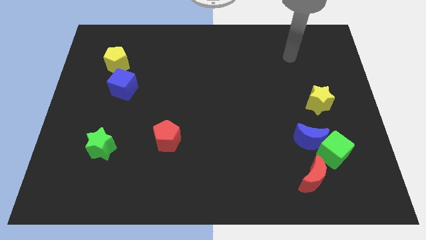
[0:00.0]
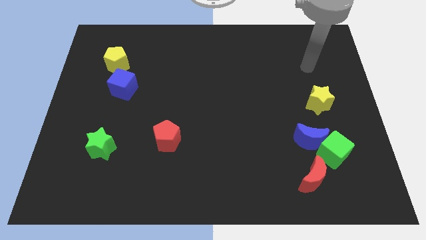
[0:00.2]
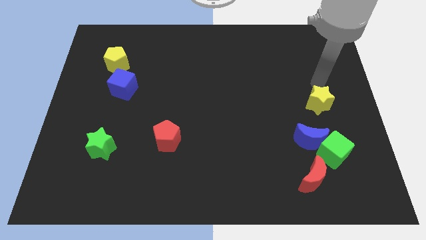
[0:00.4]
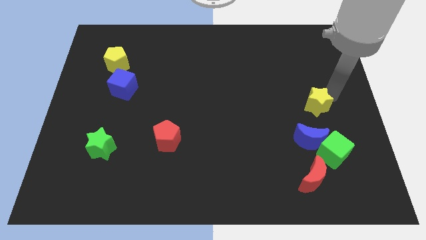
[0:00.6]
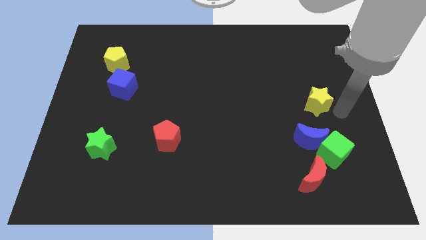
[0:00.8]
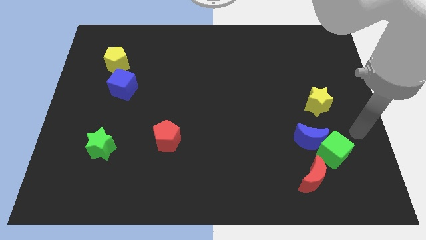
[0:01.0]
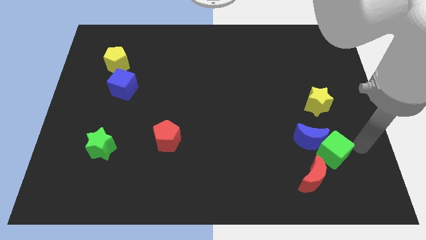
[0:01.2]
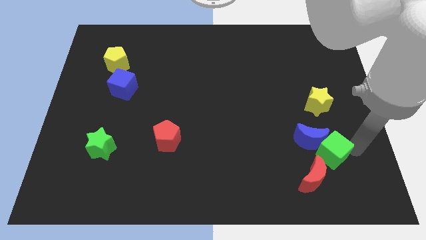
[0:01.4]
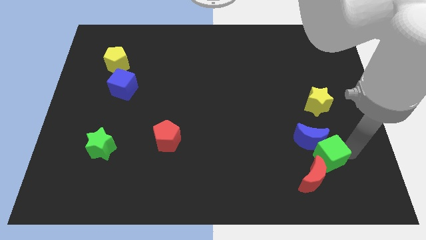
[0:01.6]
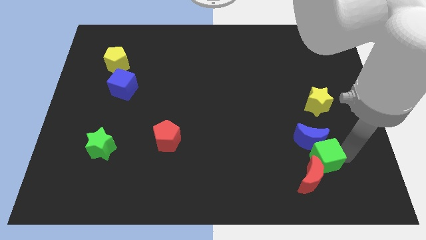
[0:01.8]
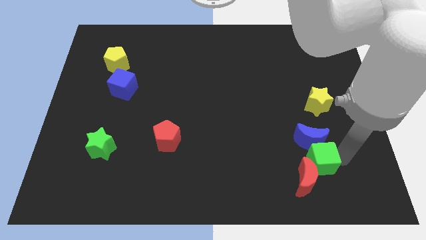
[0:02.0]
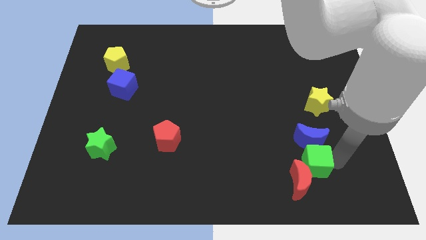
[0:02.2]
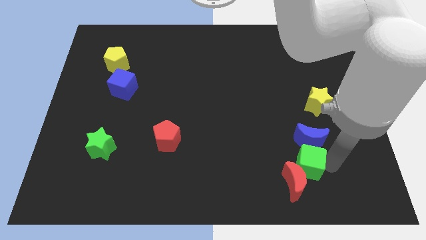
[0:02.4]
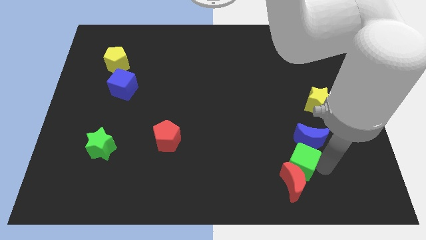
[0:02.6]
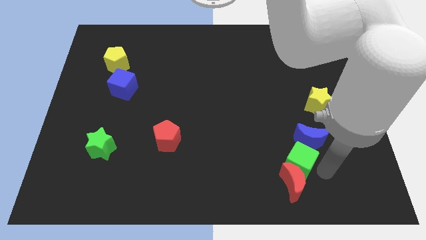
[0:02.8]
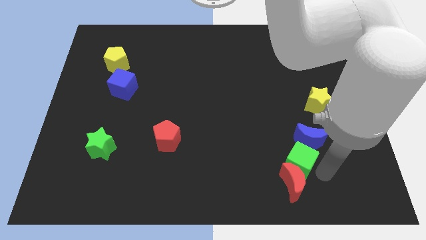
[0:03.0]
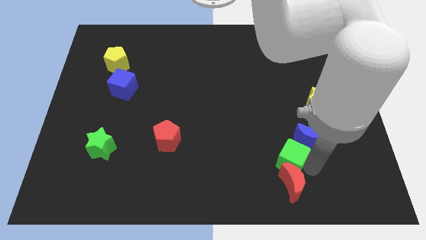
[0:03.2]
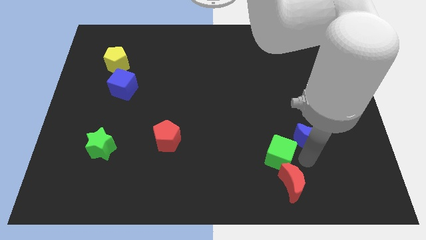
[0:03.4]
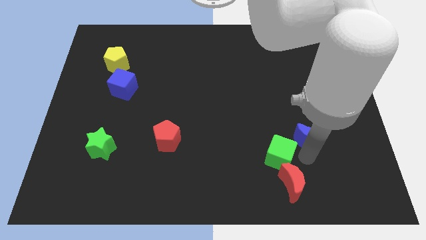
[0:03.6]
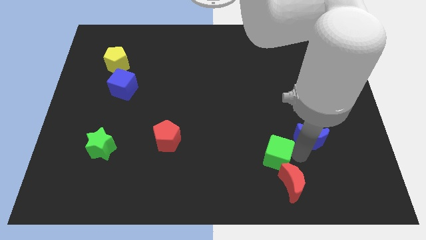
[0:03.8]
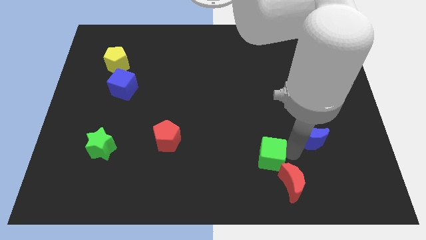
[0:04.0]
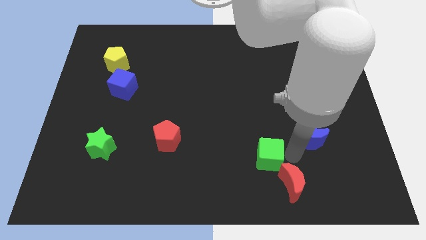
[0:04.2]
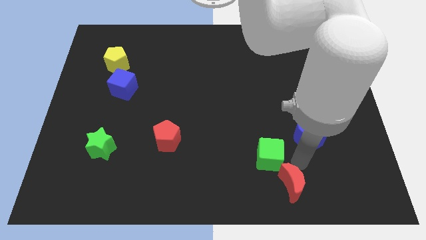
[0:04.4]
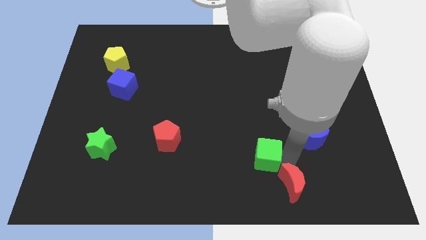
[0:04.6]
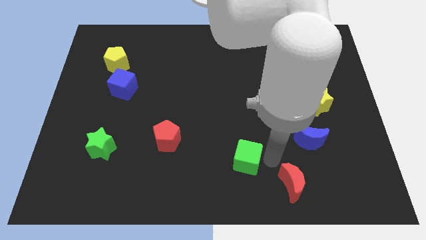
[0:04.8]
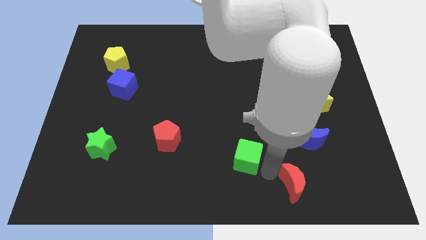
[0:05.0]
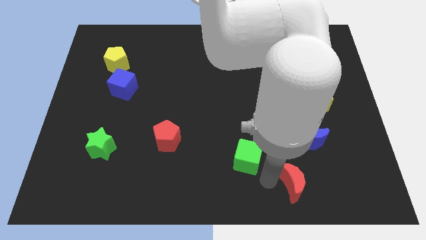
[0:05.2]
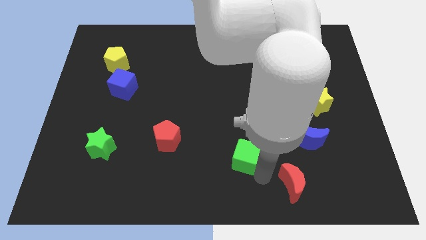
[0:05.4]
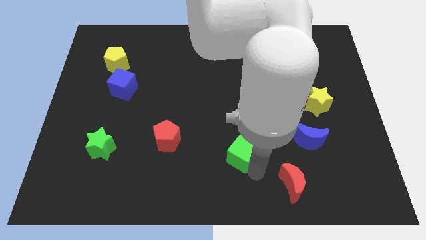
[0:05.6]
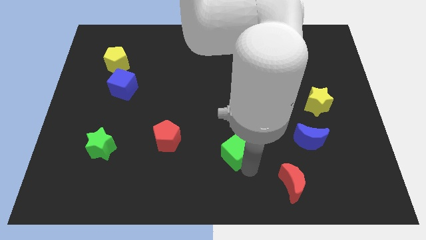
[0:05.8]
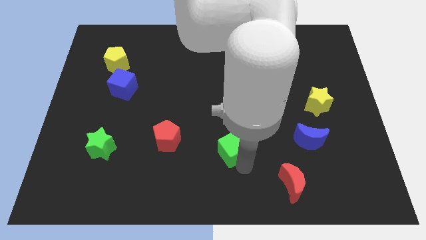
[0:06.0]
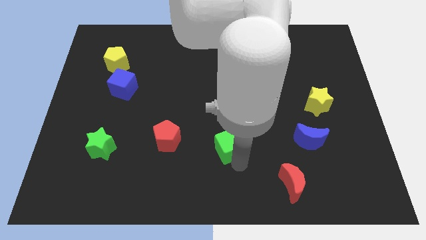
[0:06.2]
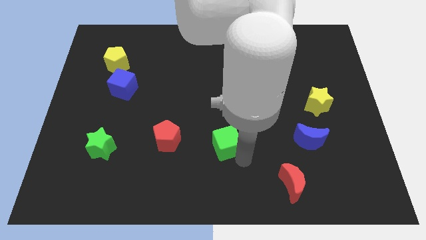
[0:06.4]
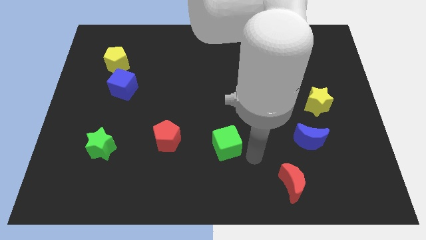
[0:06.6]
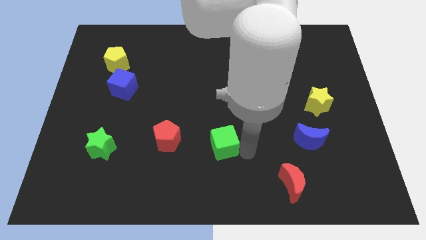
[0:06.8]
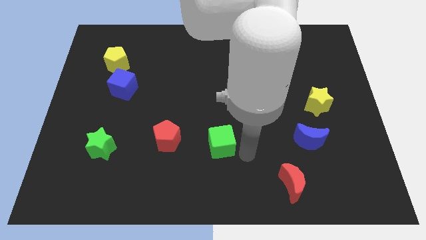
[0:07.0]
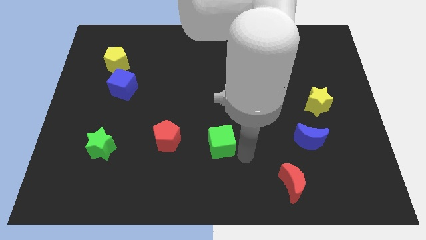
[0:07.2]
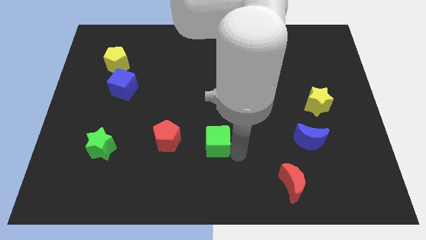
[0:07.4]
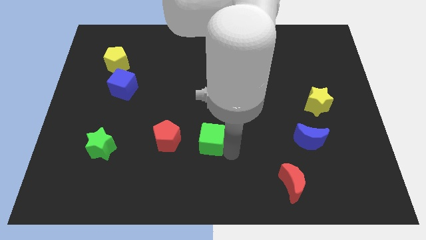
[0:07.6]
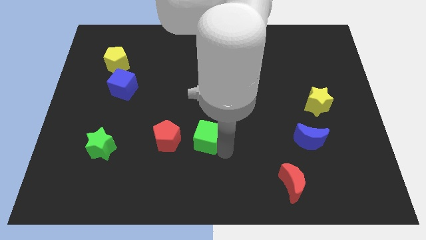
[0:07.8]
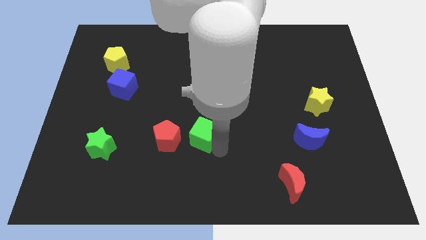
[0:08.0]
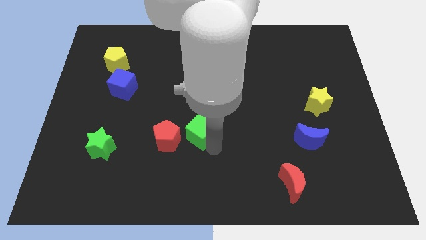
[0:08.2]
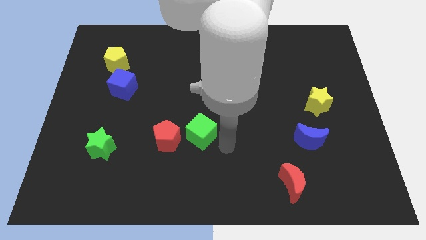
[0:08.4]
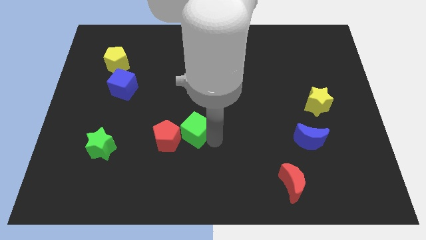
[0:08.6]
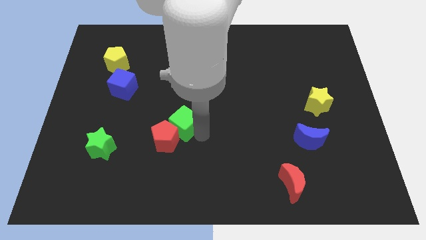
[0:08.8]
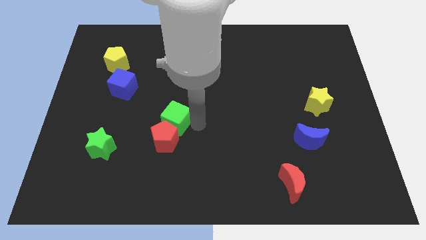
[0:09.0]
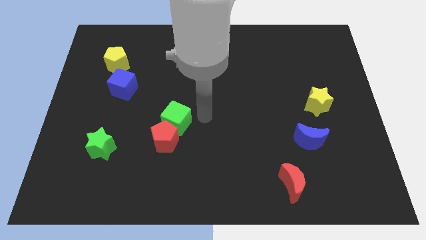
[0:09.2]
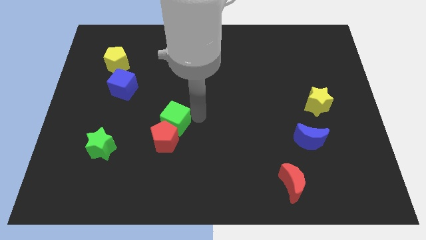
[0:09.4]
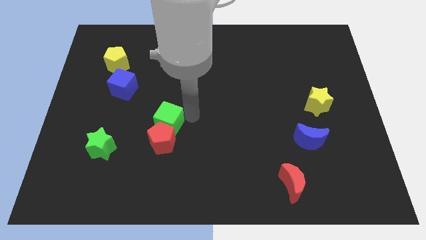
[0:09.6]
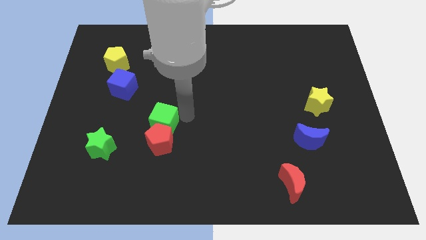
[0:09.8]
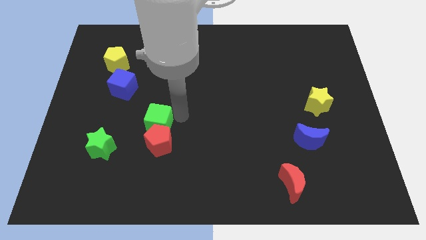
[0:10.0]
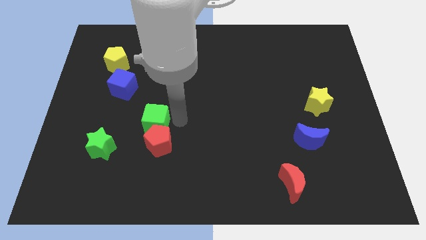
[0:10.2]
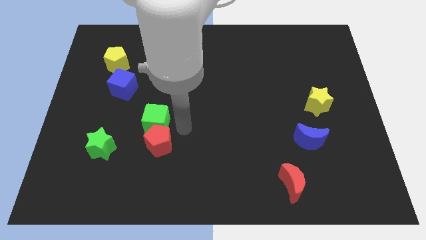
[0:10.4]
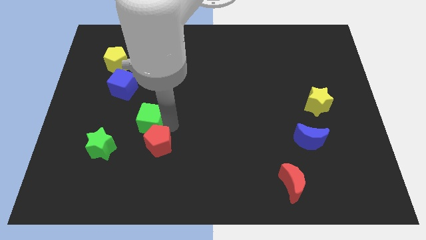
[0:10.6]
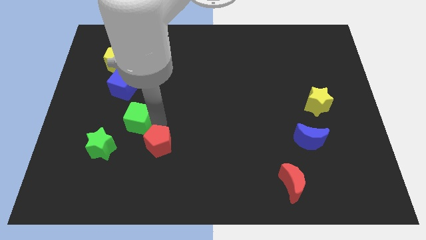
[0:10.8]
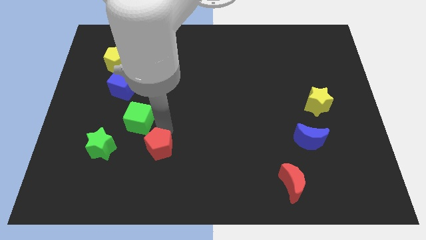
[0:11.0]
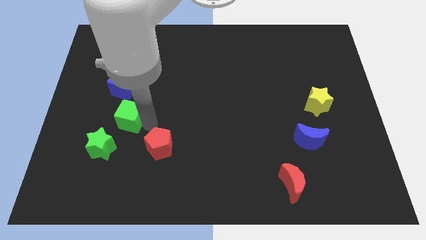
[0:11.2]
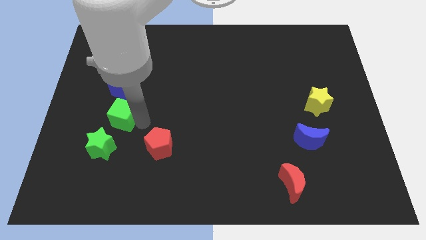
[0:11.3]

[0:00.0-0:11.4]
move the green cube to the top side of the green star
